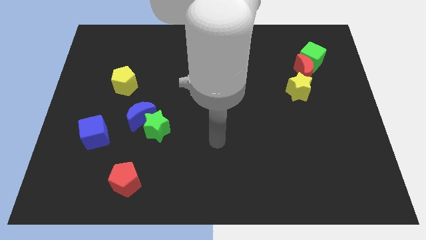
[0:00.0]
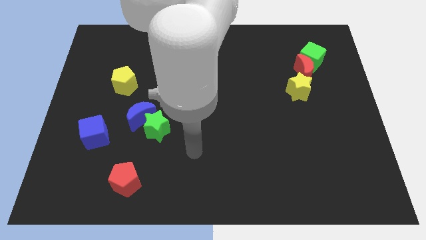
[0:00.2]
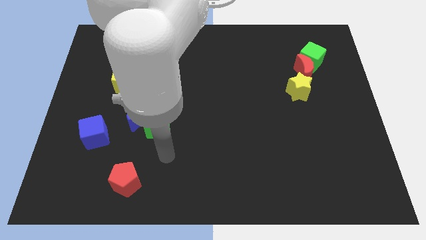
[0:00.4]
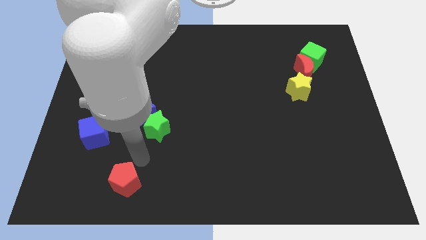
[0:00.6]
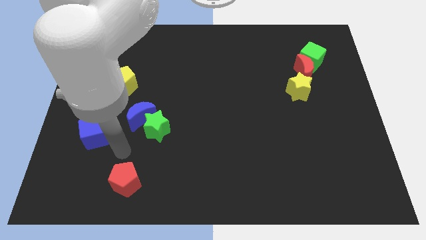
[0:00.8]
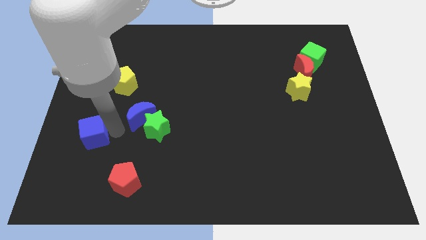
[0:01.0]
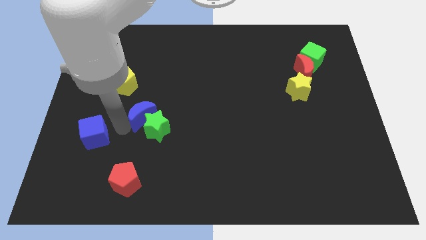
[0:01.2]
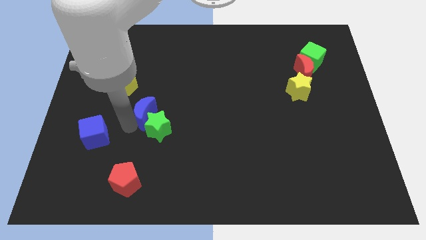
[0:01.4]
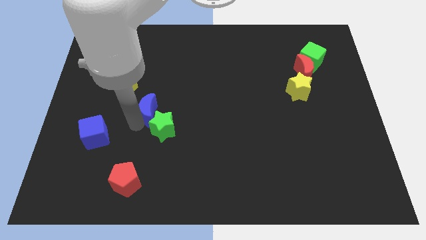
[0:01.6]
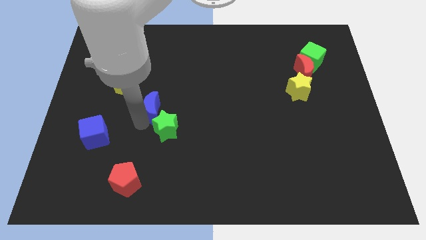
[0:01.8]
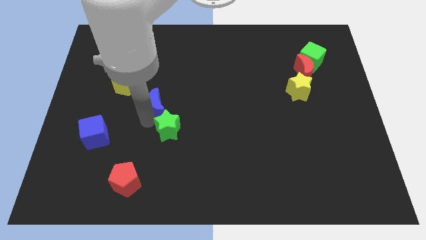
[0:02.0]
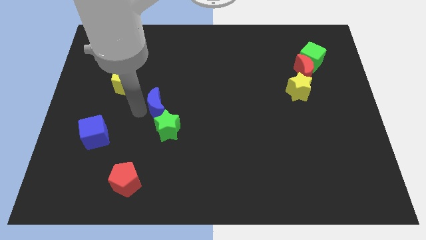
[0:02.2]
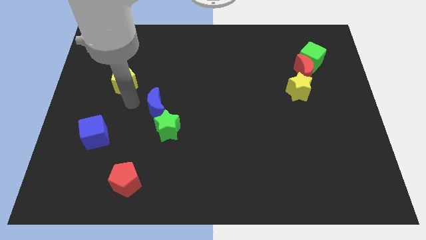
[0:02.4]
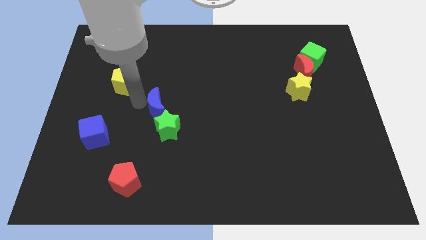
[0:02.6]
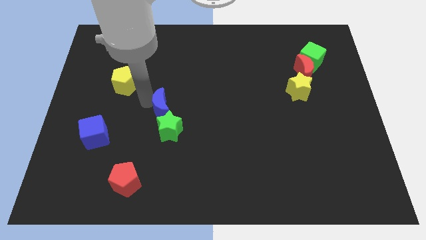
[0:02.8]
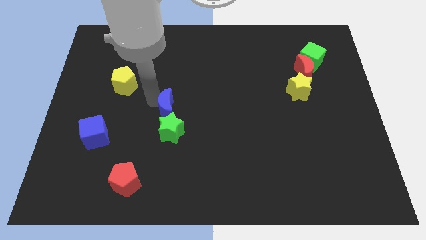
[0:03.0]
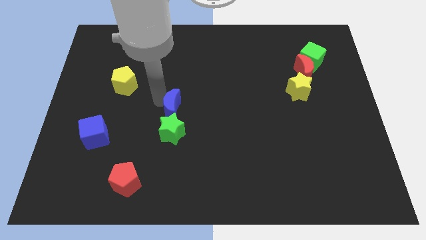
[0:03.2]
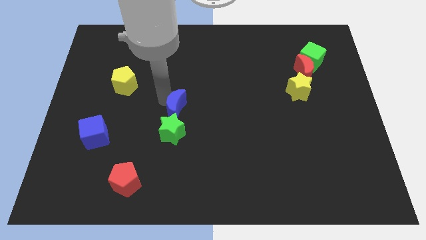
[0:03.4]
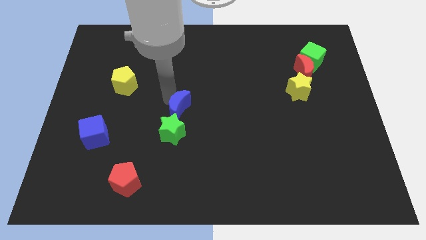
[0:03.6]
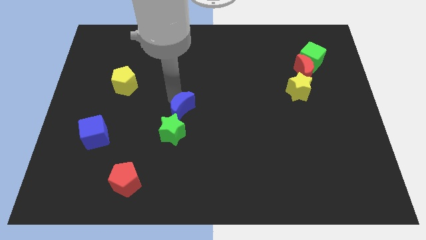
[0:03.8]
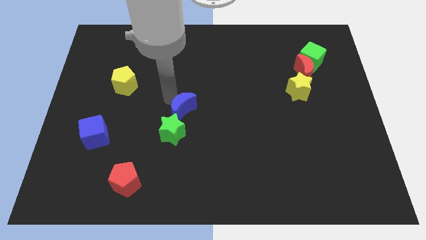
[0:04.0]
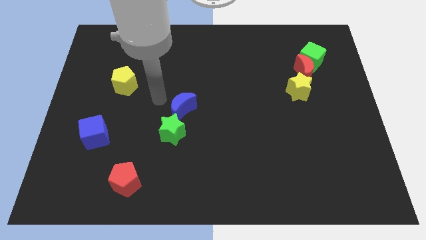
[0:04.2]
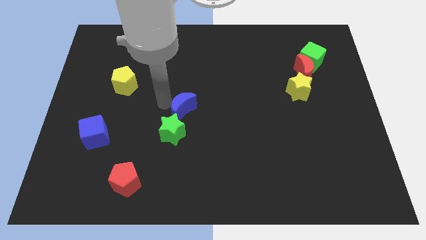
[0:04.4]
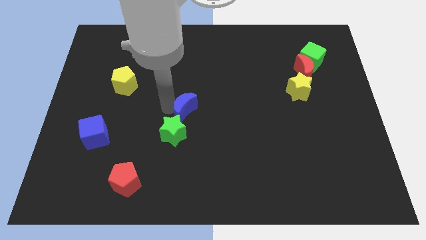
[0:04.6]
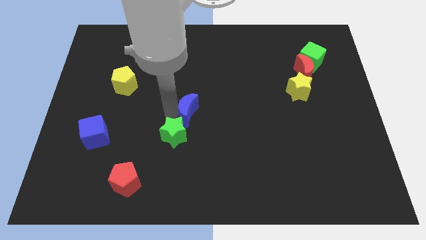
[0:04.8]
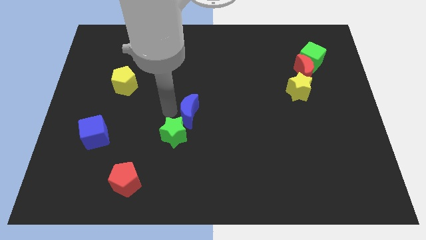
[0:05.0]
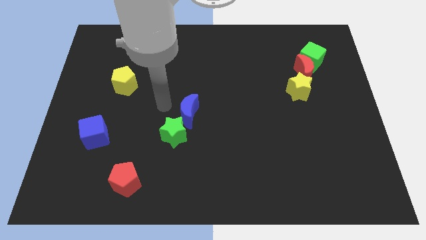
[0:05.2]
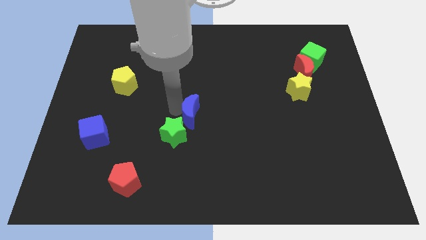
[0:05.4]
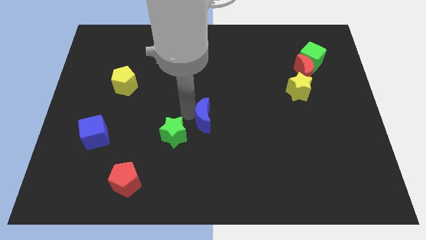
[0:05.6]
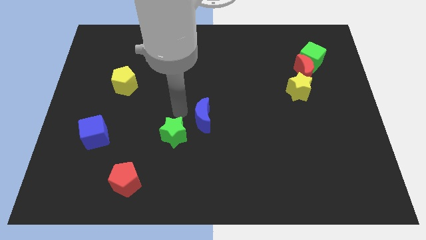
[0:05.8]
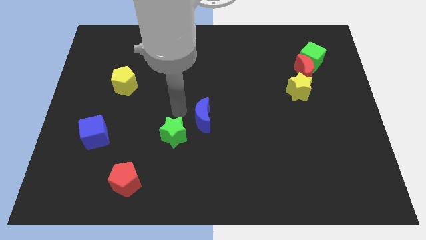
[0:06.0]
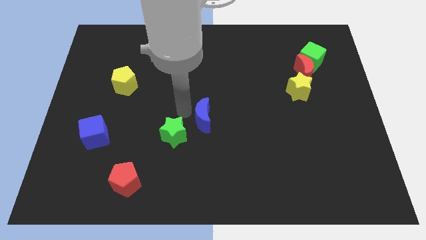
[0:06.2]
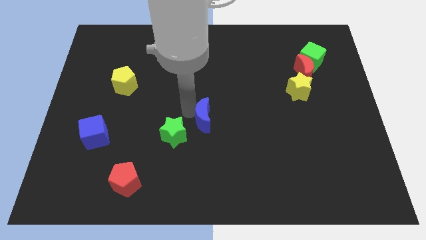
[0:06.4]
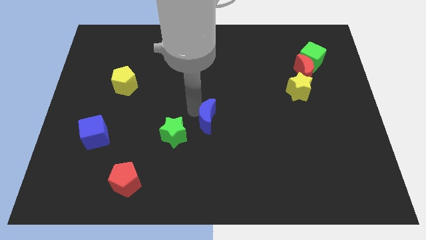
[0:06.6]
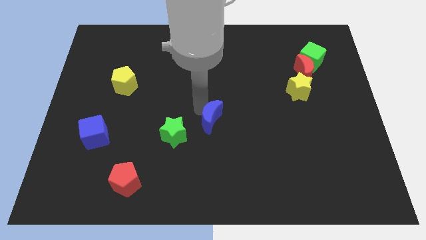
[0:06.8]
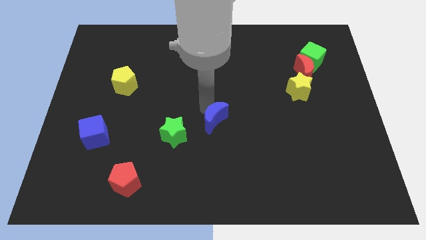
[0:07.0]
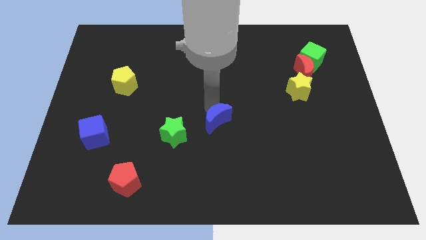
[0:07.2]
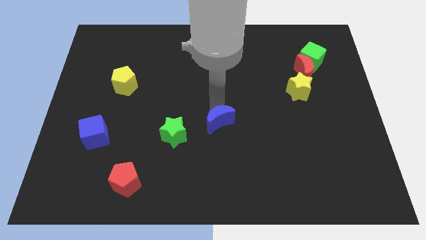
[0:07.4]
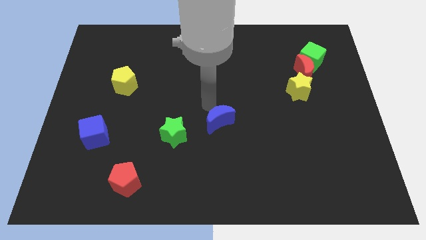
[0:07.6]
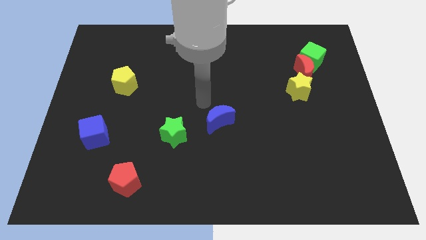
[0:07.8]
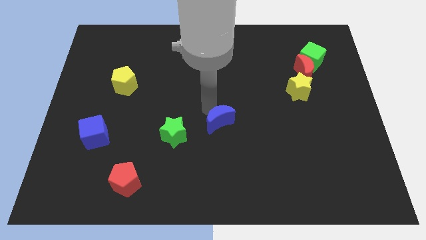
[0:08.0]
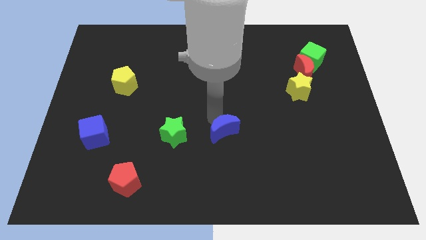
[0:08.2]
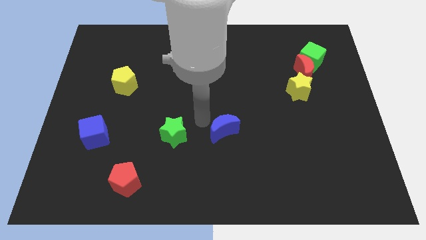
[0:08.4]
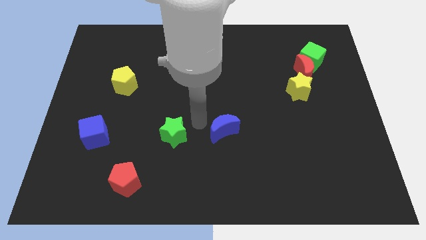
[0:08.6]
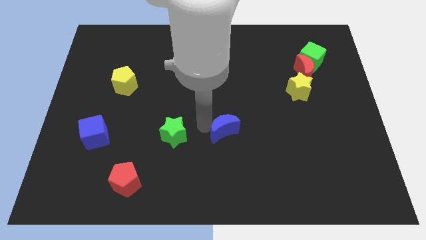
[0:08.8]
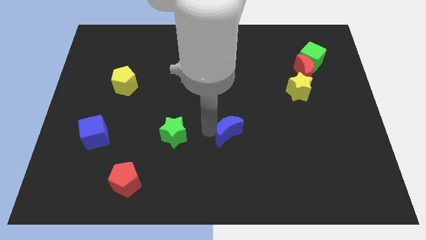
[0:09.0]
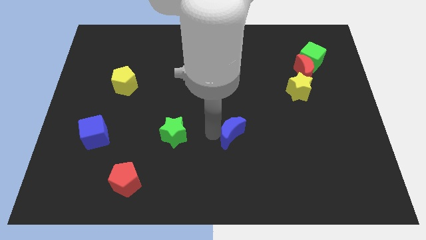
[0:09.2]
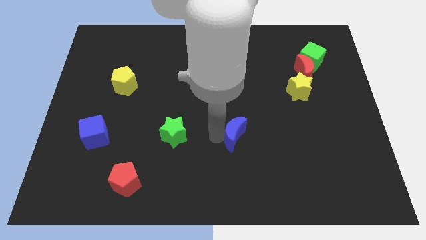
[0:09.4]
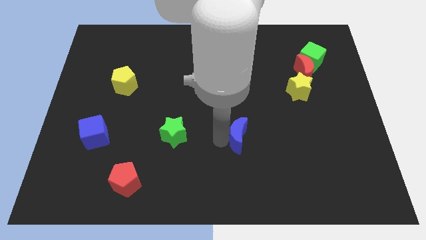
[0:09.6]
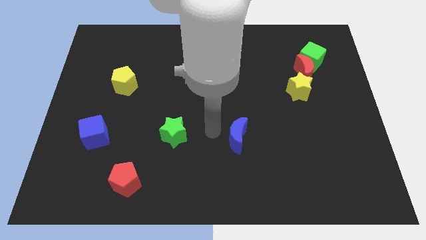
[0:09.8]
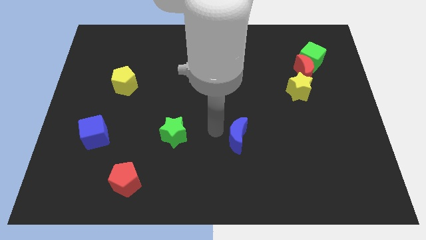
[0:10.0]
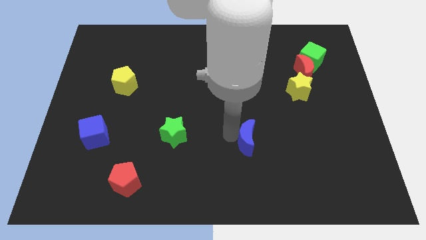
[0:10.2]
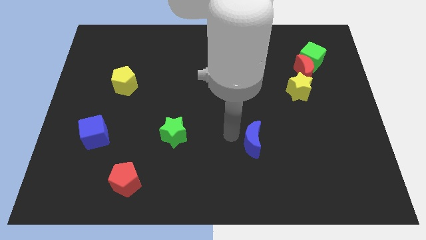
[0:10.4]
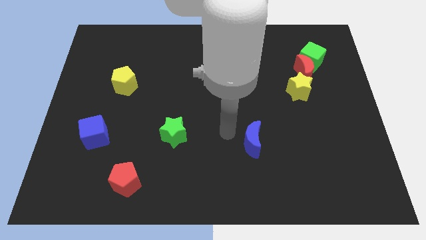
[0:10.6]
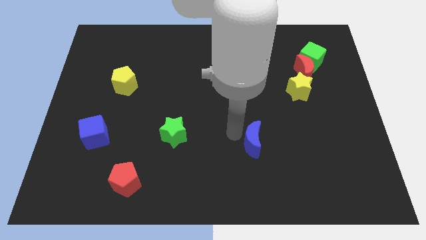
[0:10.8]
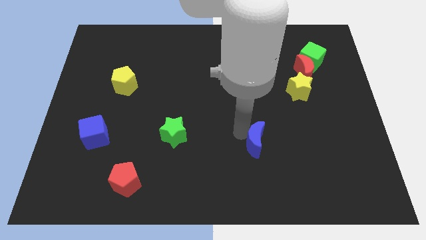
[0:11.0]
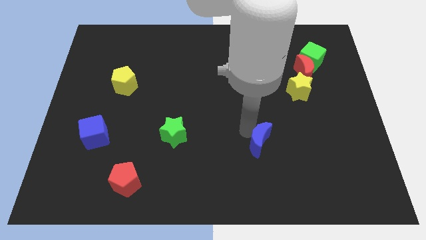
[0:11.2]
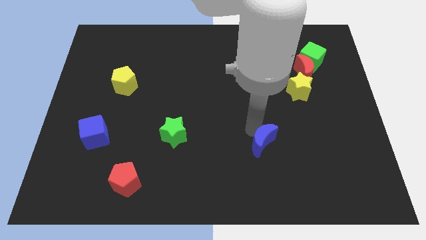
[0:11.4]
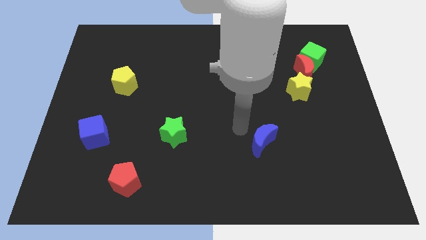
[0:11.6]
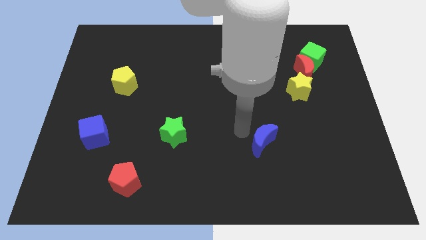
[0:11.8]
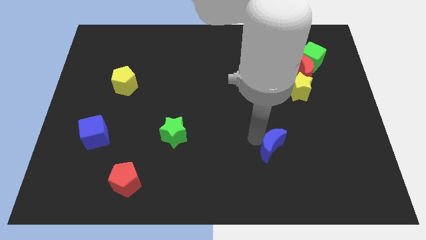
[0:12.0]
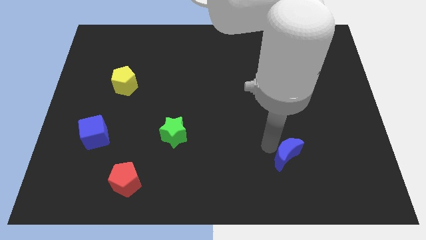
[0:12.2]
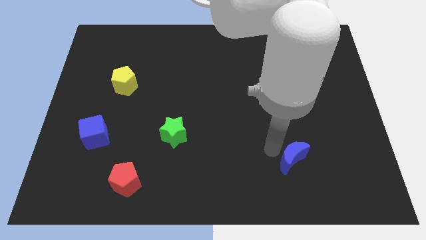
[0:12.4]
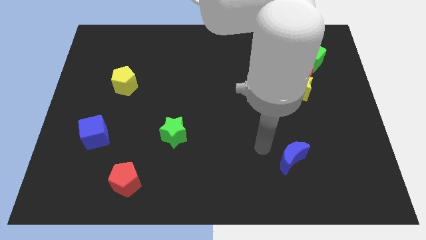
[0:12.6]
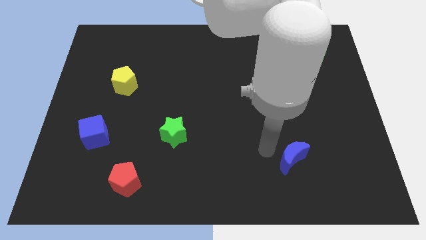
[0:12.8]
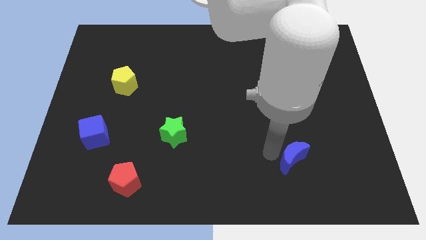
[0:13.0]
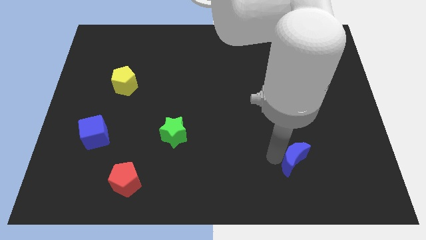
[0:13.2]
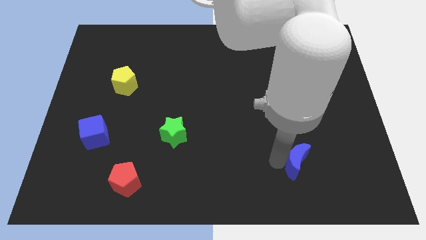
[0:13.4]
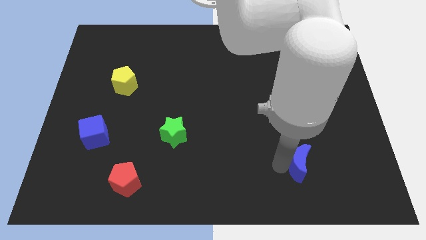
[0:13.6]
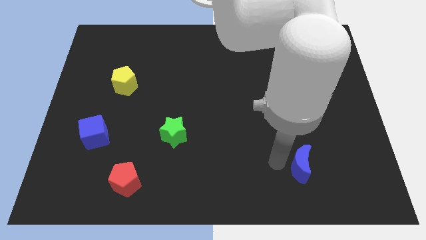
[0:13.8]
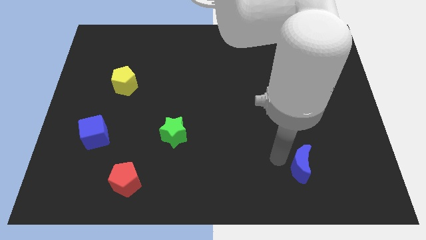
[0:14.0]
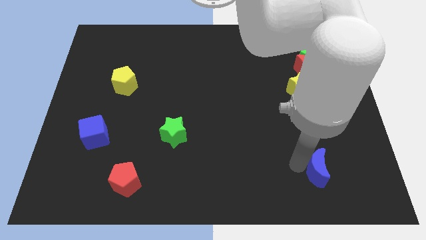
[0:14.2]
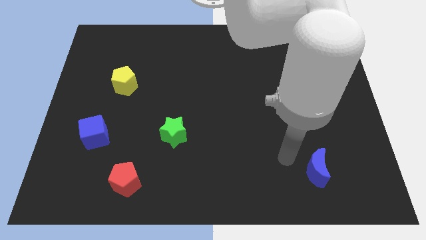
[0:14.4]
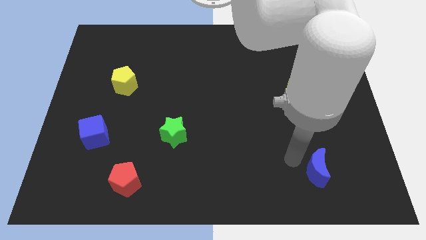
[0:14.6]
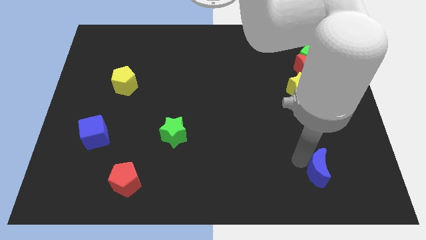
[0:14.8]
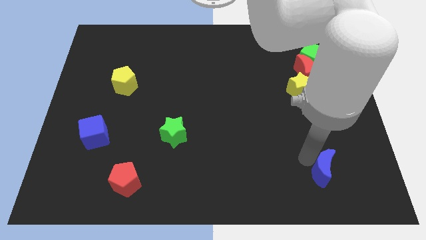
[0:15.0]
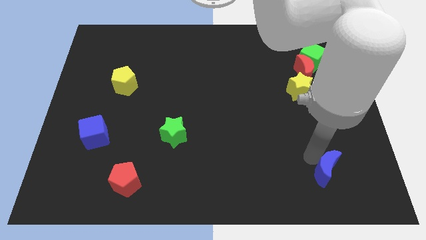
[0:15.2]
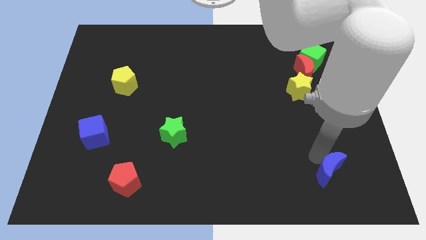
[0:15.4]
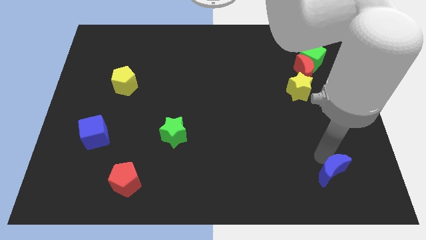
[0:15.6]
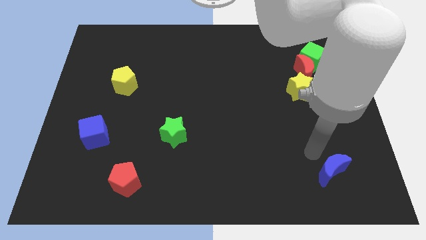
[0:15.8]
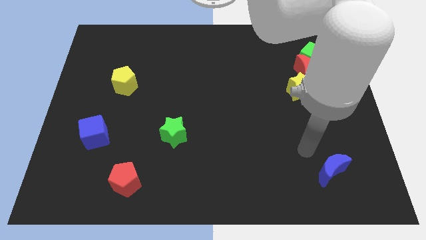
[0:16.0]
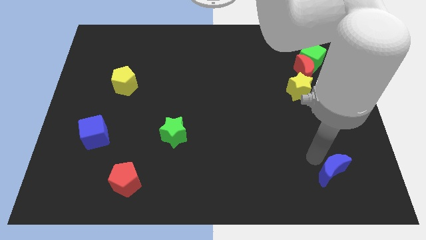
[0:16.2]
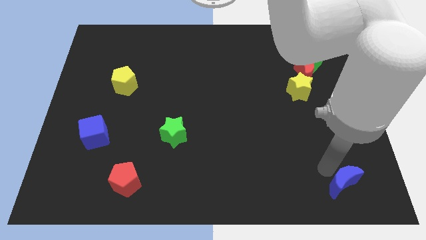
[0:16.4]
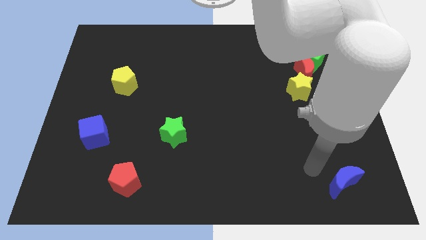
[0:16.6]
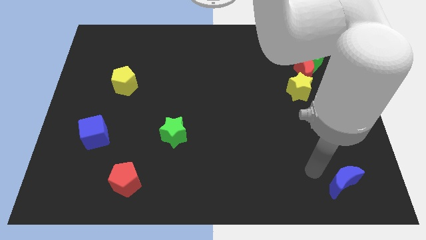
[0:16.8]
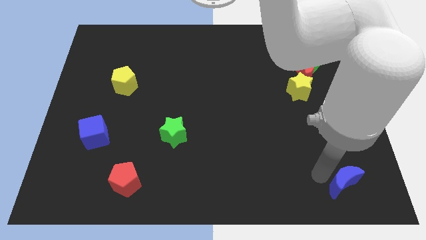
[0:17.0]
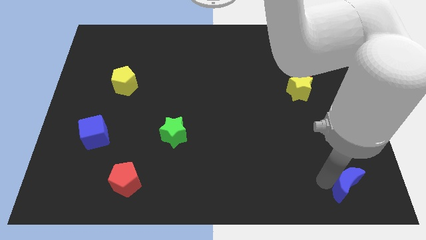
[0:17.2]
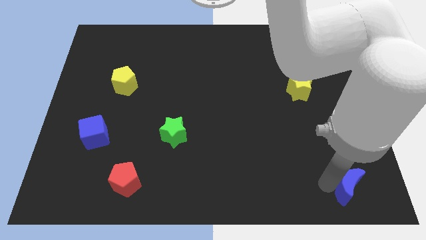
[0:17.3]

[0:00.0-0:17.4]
slide the blue moon to the bottom right of the board
